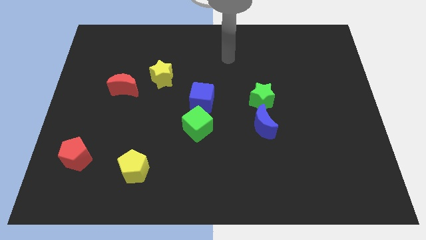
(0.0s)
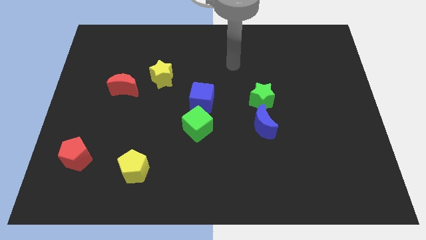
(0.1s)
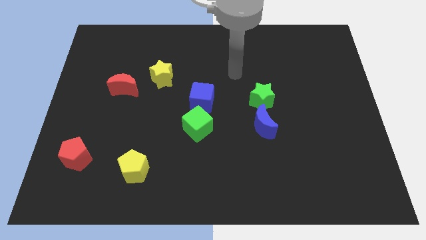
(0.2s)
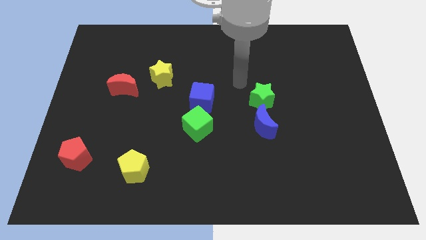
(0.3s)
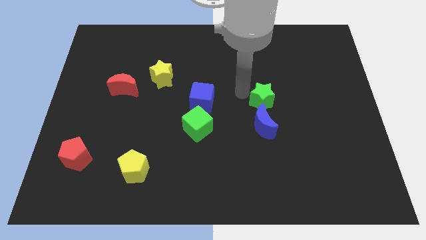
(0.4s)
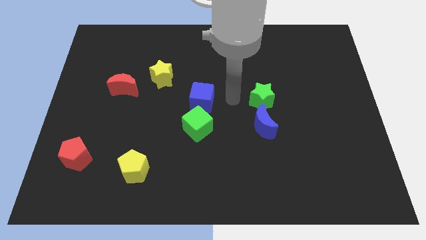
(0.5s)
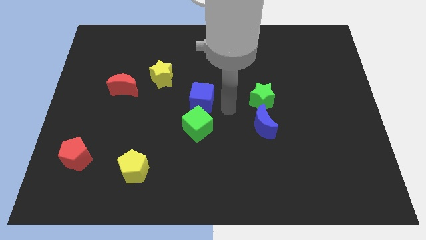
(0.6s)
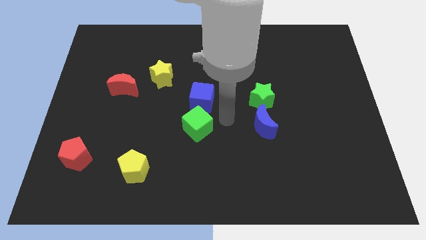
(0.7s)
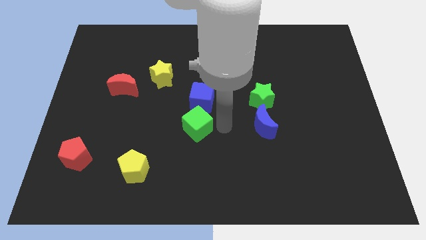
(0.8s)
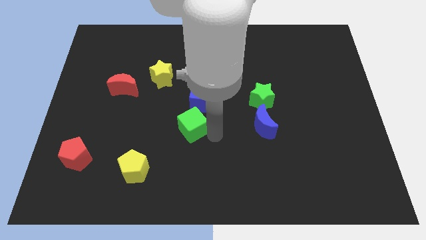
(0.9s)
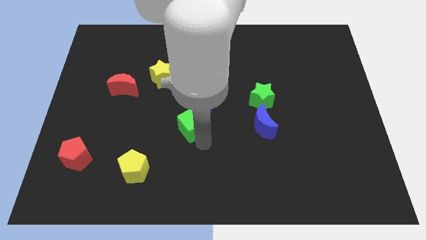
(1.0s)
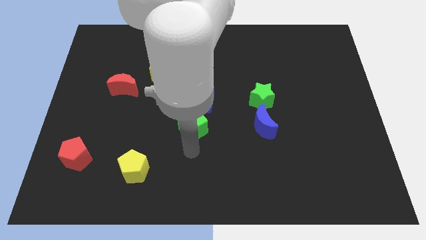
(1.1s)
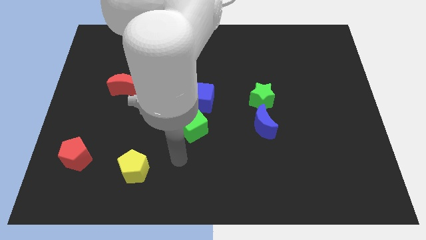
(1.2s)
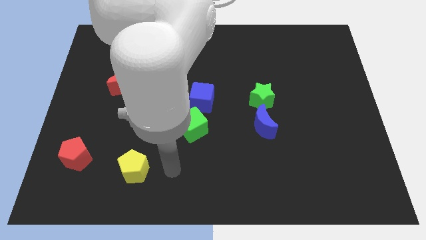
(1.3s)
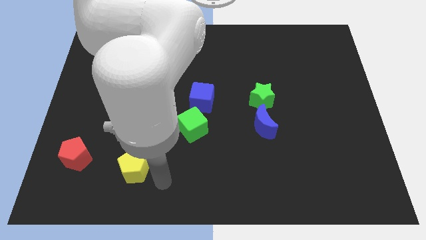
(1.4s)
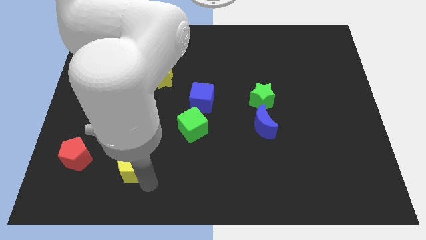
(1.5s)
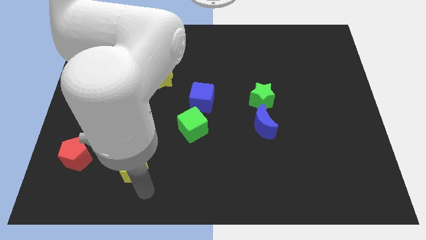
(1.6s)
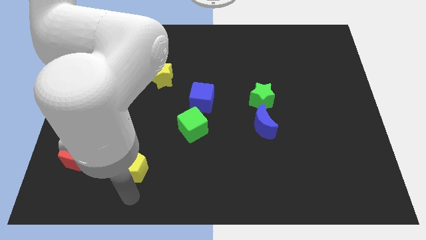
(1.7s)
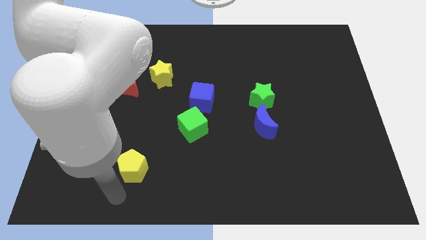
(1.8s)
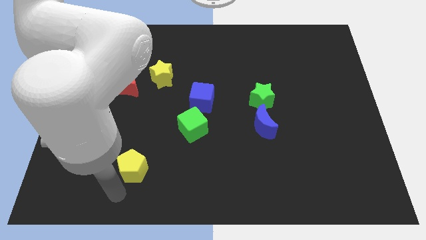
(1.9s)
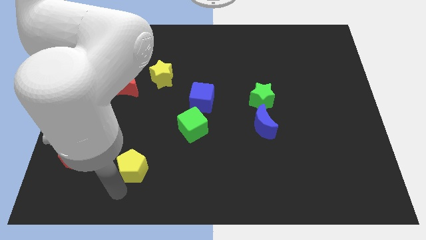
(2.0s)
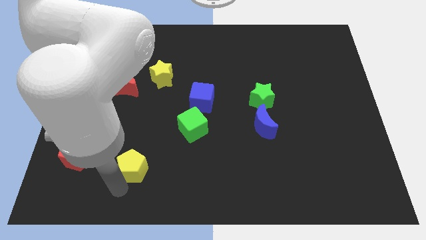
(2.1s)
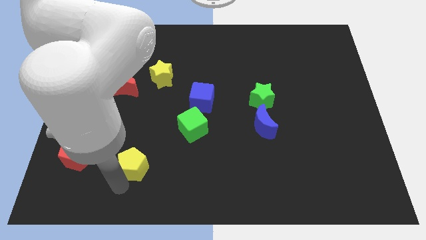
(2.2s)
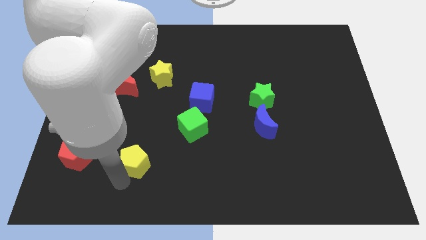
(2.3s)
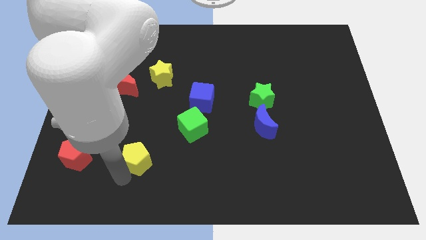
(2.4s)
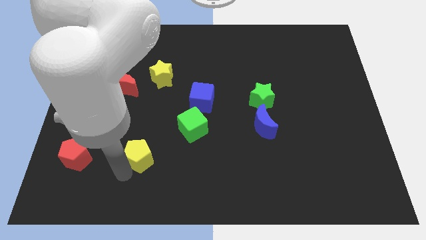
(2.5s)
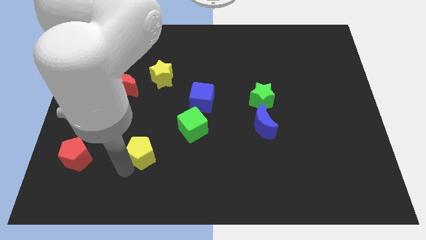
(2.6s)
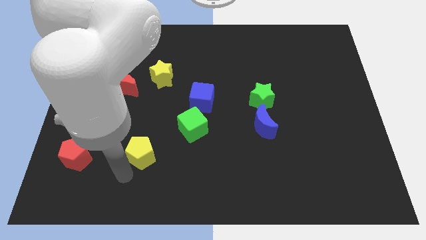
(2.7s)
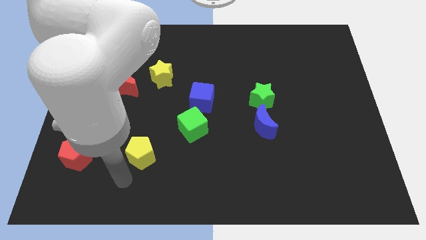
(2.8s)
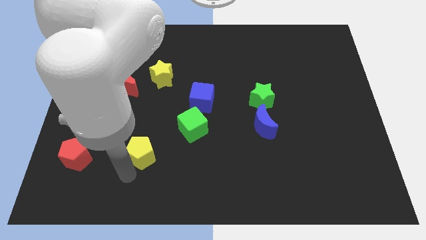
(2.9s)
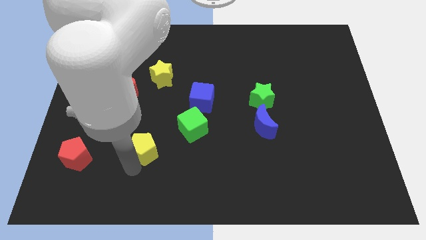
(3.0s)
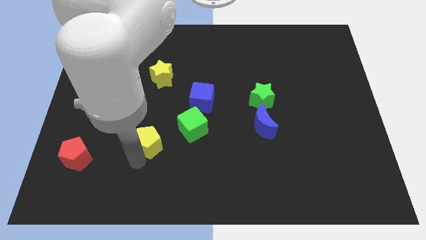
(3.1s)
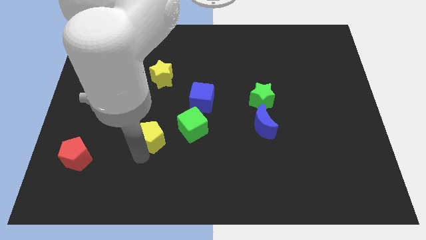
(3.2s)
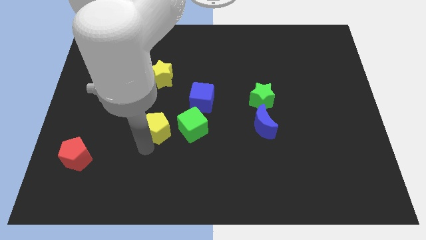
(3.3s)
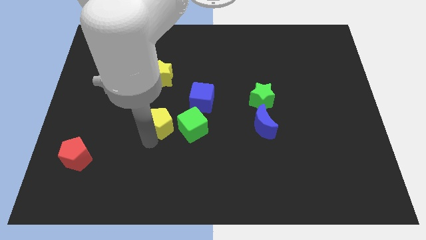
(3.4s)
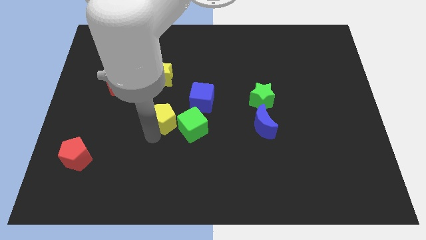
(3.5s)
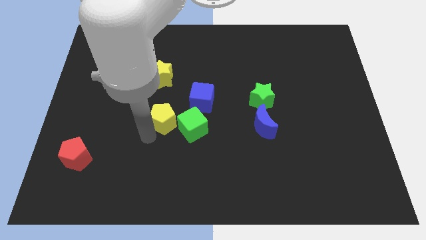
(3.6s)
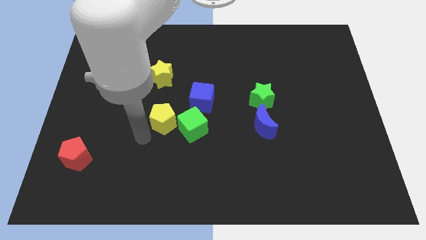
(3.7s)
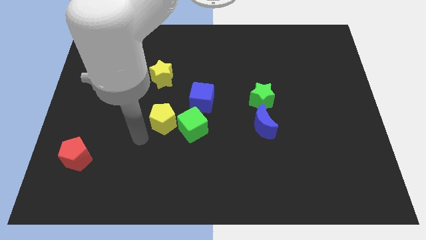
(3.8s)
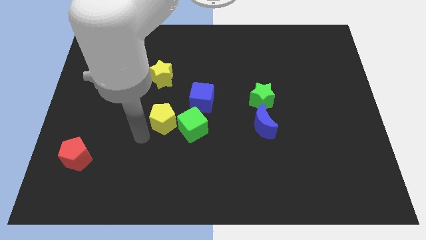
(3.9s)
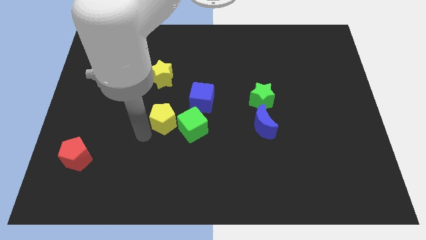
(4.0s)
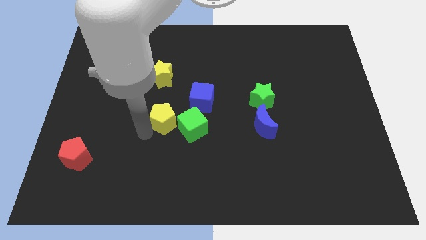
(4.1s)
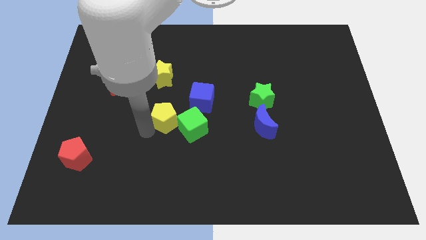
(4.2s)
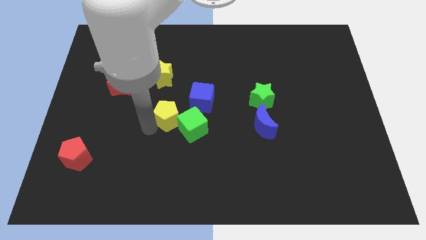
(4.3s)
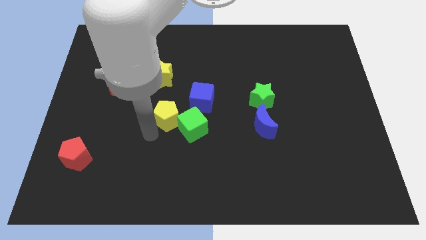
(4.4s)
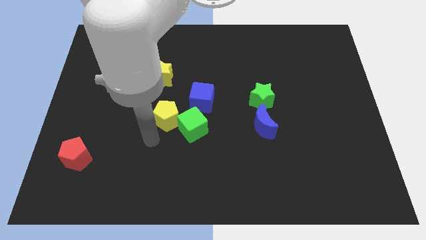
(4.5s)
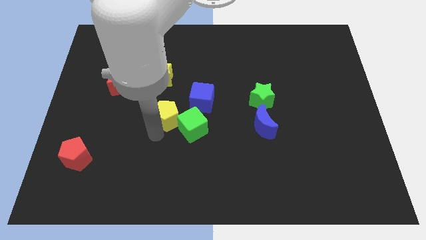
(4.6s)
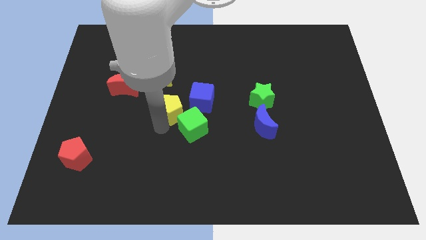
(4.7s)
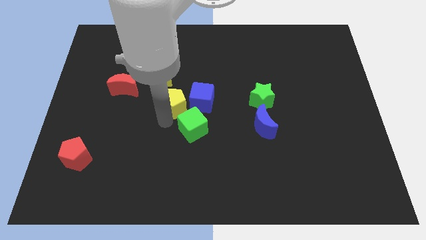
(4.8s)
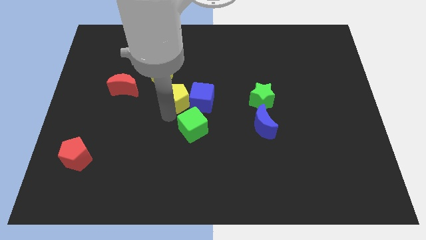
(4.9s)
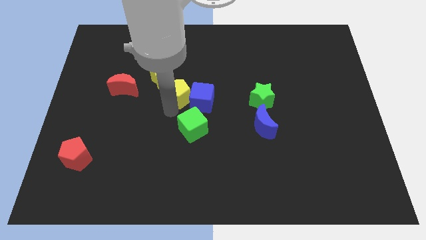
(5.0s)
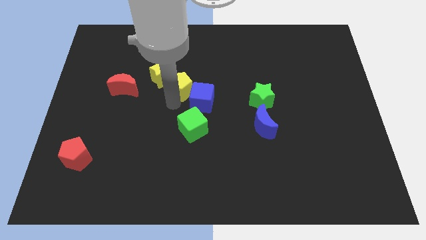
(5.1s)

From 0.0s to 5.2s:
put the yellow pentagon to the right of the yellow star

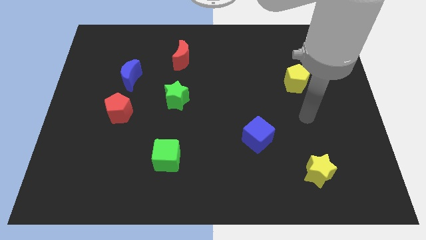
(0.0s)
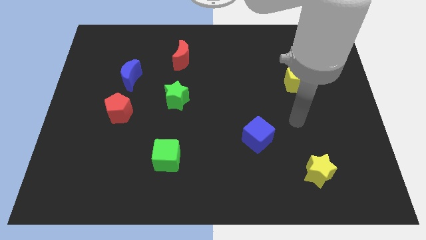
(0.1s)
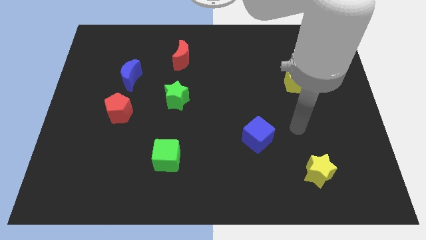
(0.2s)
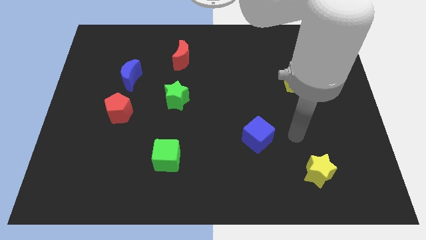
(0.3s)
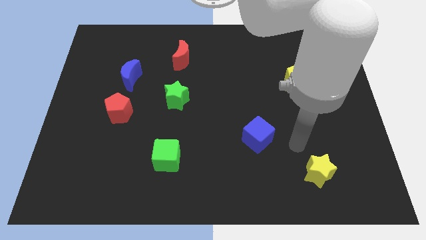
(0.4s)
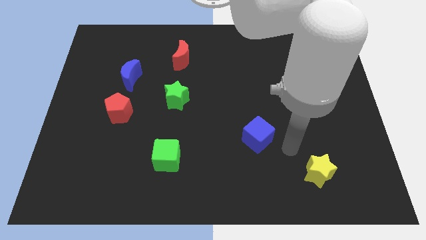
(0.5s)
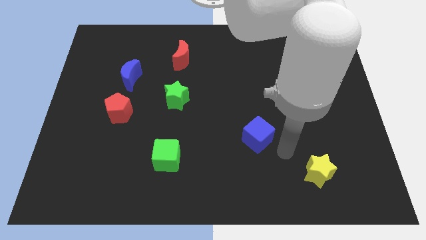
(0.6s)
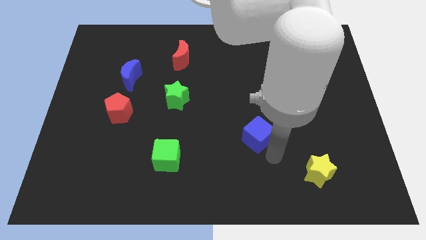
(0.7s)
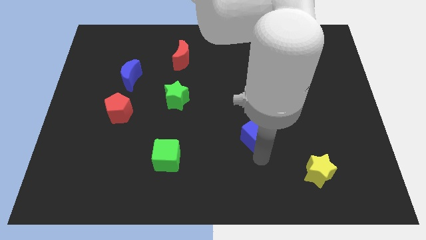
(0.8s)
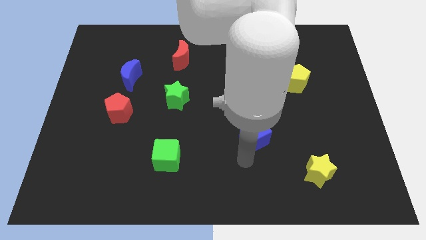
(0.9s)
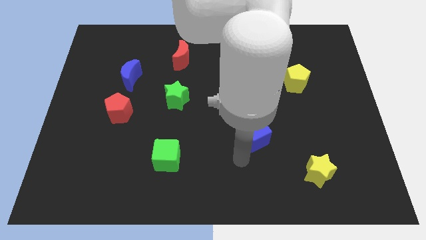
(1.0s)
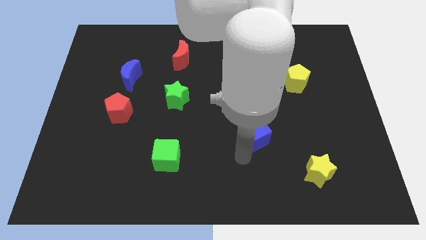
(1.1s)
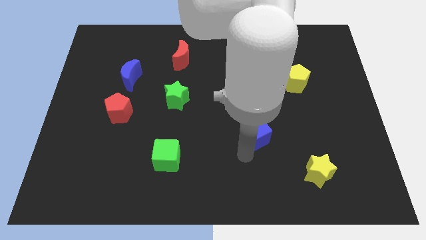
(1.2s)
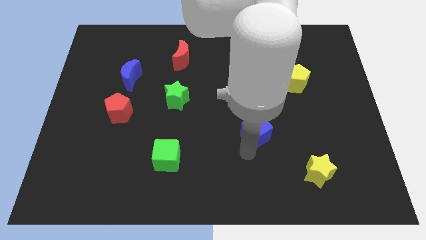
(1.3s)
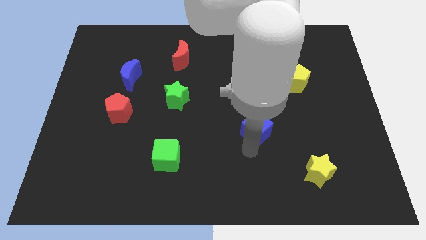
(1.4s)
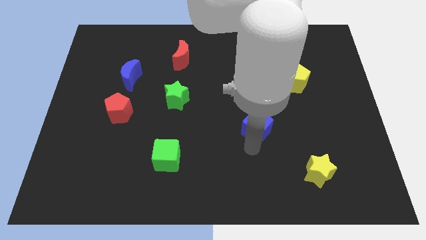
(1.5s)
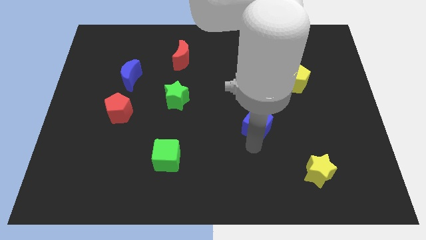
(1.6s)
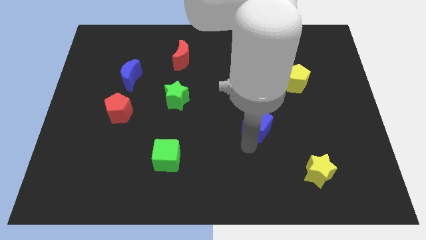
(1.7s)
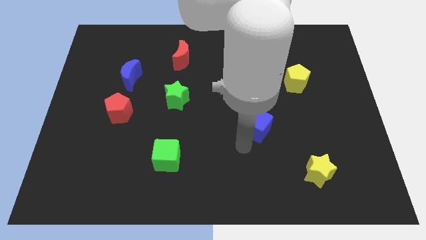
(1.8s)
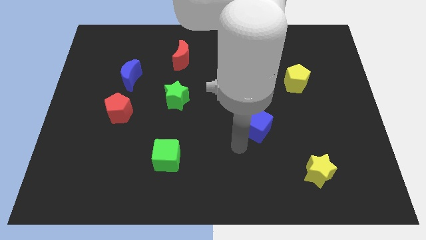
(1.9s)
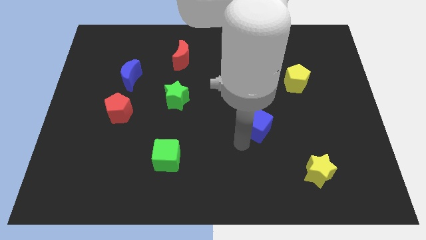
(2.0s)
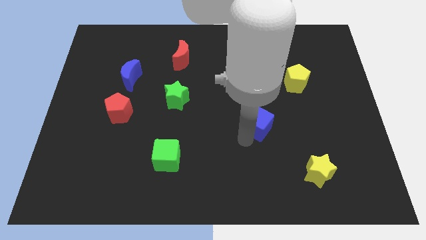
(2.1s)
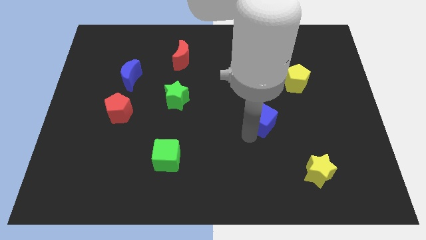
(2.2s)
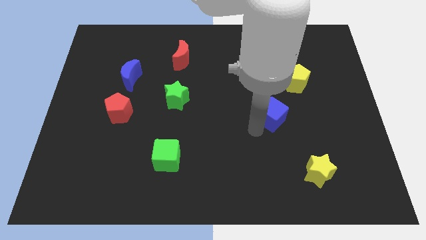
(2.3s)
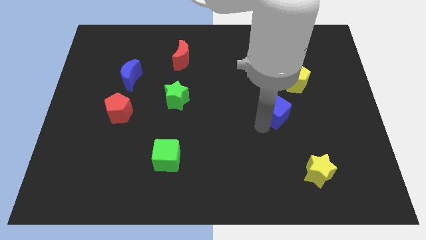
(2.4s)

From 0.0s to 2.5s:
move the blue cube to the bottom left side of the yellow pentagon

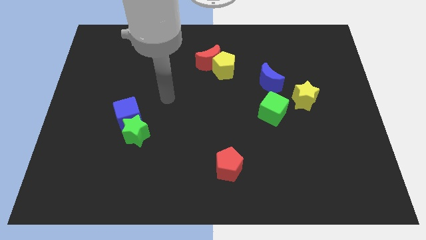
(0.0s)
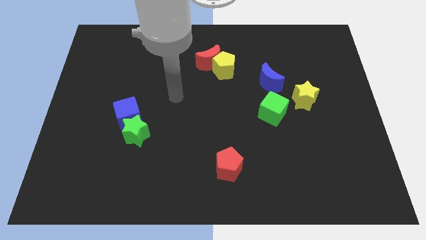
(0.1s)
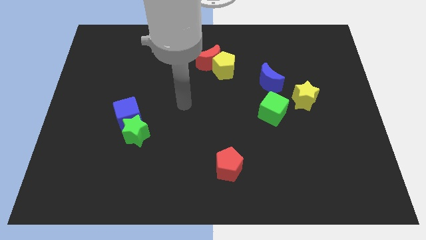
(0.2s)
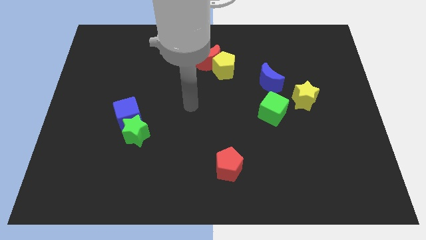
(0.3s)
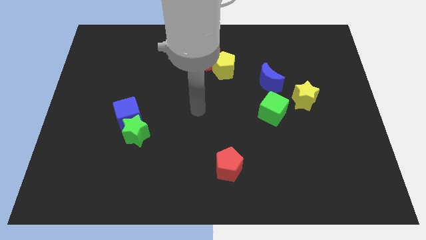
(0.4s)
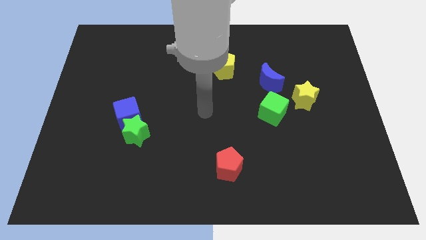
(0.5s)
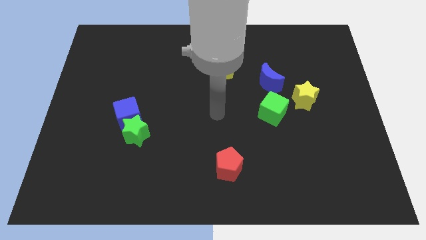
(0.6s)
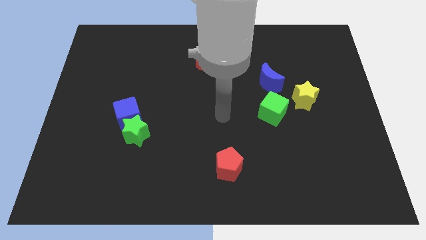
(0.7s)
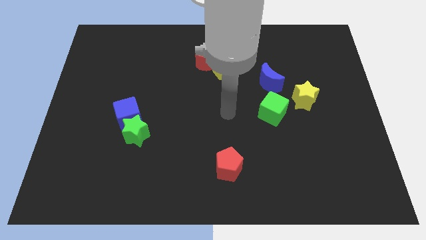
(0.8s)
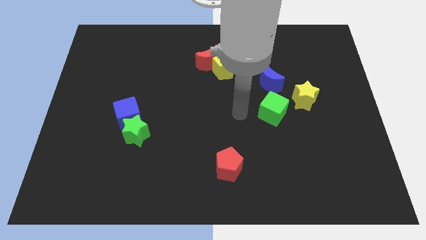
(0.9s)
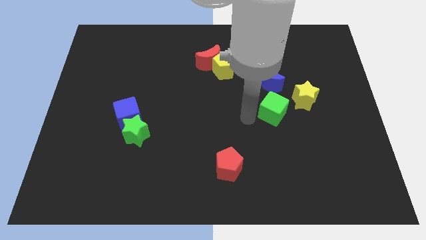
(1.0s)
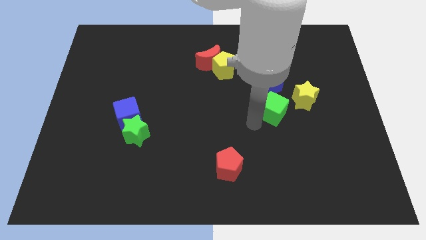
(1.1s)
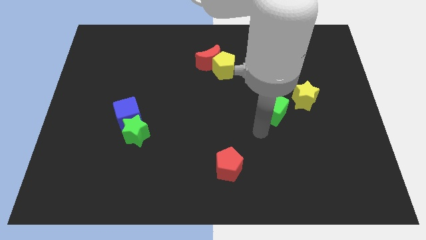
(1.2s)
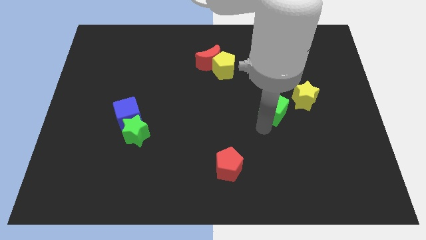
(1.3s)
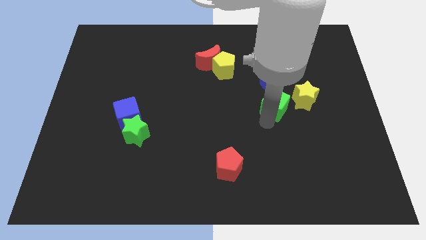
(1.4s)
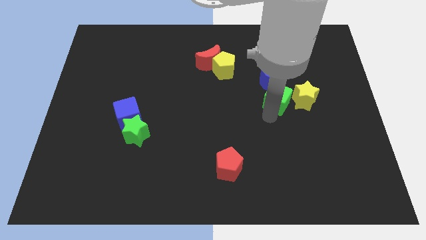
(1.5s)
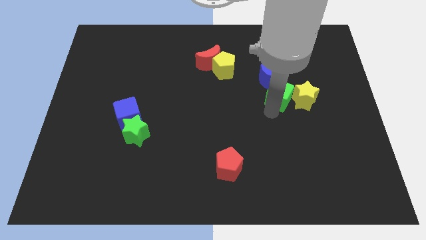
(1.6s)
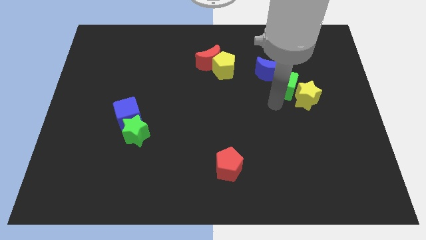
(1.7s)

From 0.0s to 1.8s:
put the green cube to the top side of the yellow star
